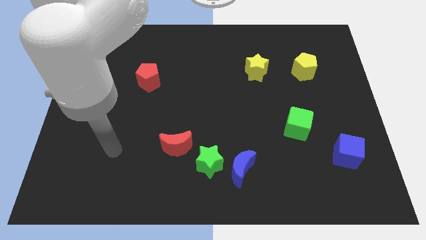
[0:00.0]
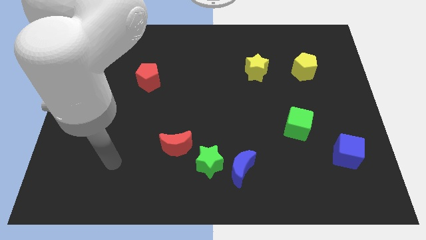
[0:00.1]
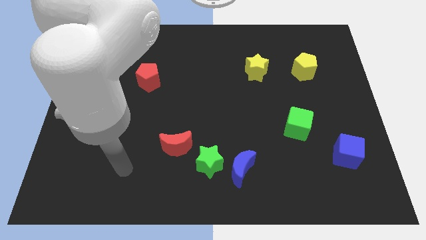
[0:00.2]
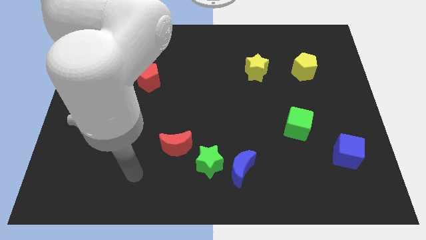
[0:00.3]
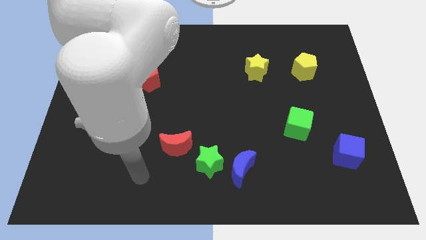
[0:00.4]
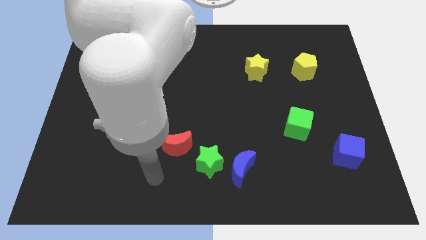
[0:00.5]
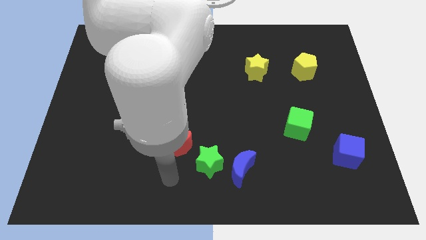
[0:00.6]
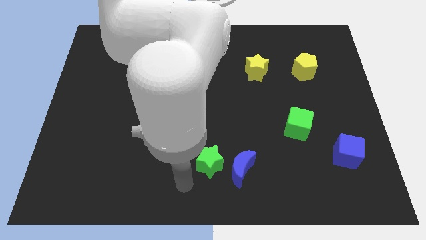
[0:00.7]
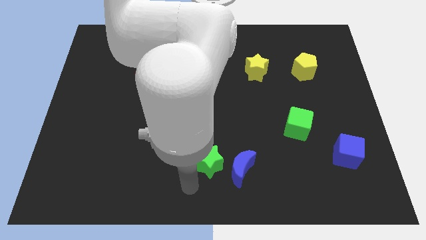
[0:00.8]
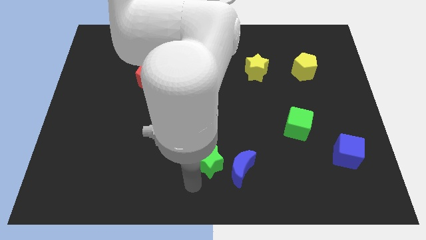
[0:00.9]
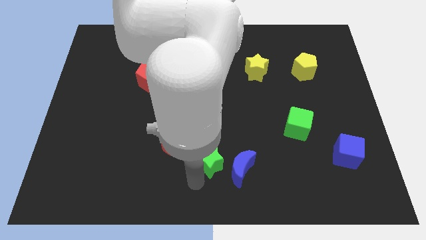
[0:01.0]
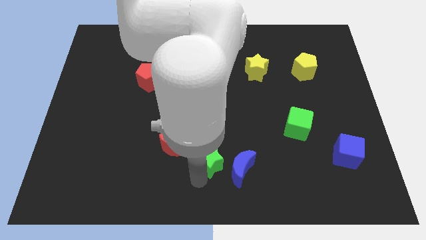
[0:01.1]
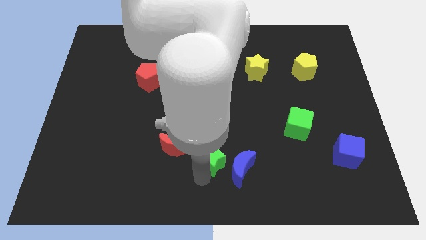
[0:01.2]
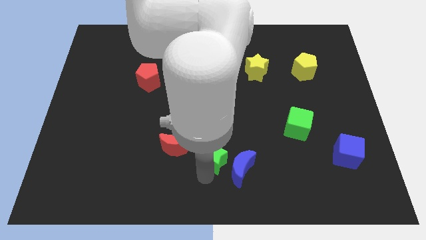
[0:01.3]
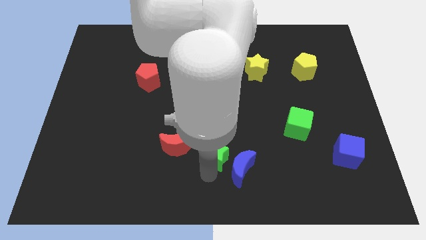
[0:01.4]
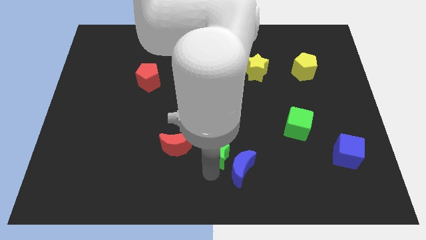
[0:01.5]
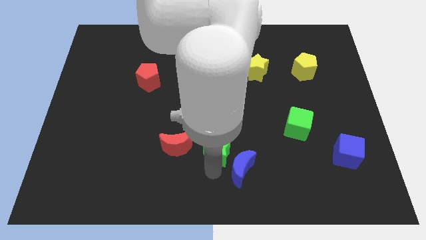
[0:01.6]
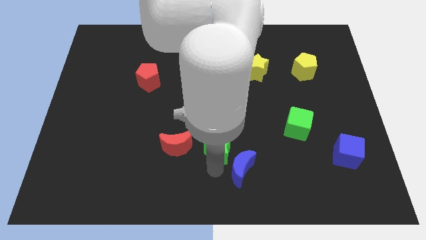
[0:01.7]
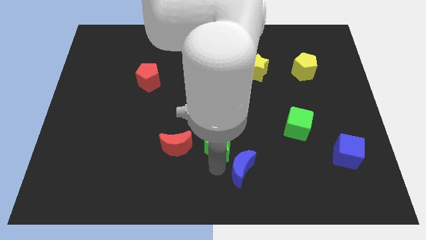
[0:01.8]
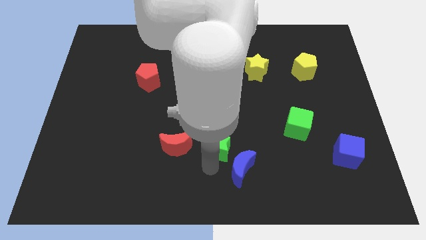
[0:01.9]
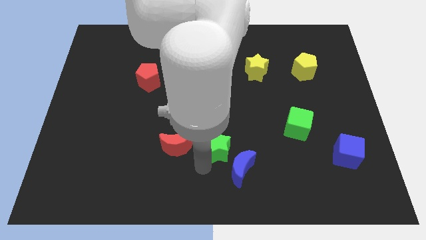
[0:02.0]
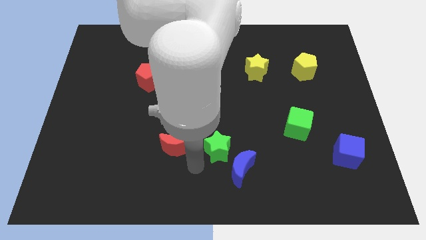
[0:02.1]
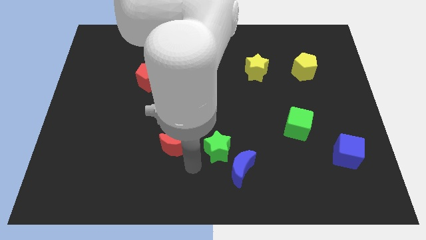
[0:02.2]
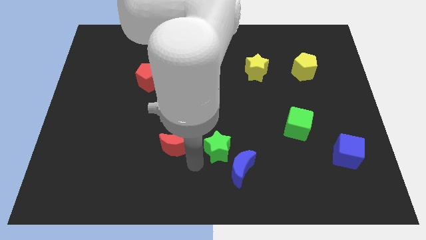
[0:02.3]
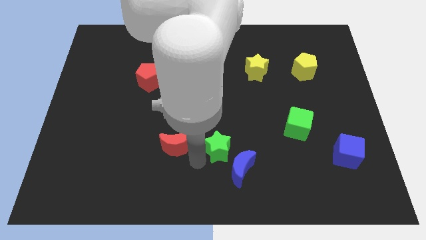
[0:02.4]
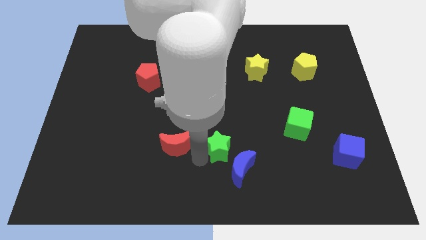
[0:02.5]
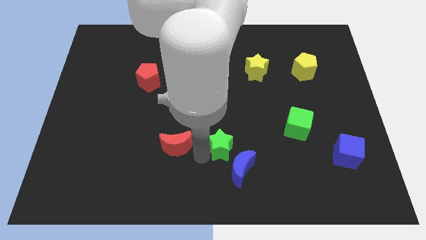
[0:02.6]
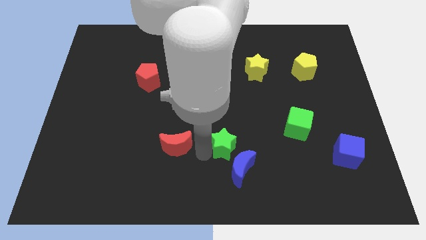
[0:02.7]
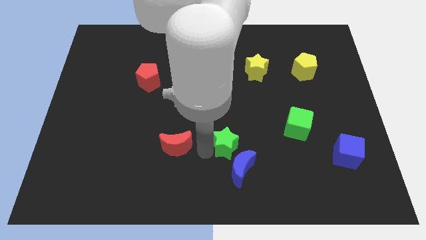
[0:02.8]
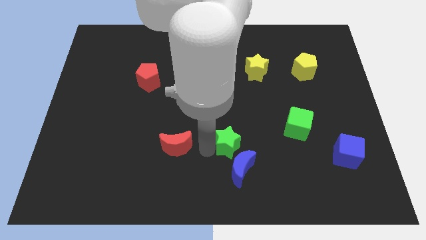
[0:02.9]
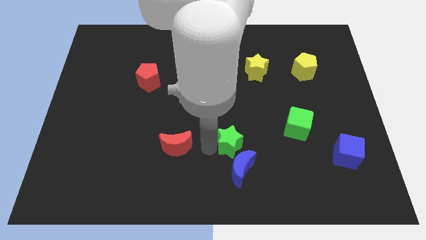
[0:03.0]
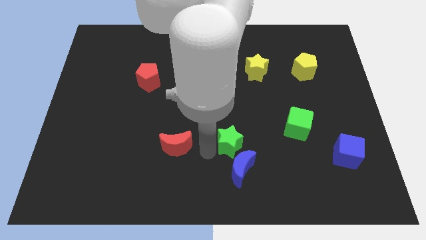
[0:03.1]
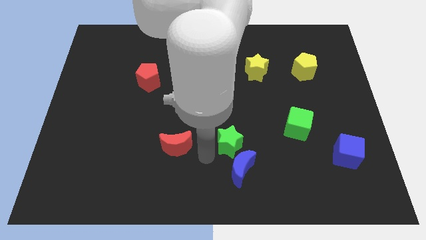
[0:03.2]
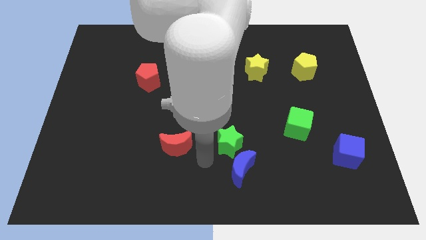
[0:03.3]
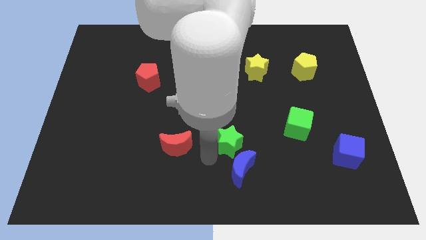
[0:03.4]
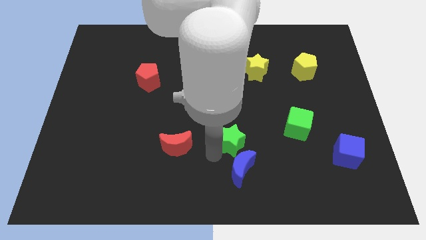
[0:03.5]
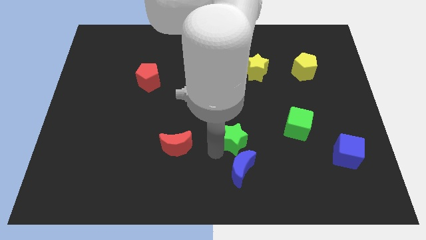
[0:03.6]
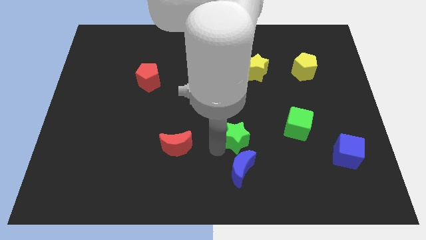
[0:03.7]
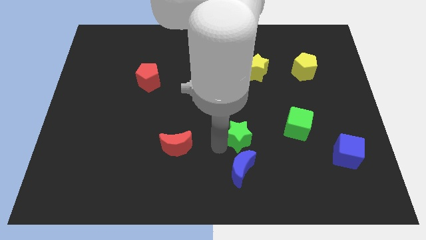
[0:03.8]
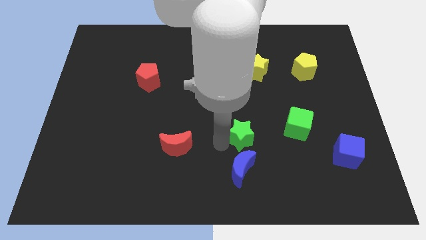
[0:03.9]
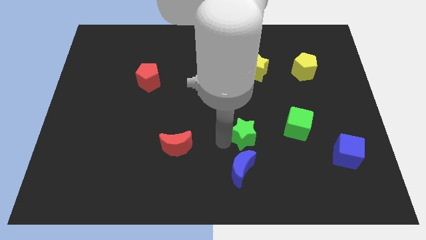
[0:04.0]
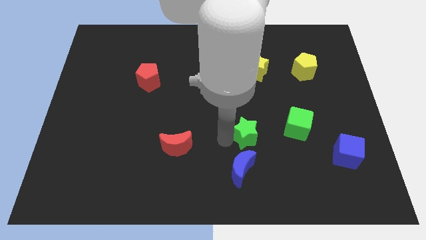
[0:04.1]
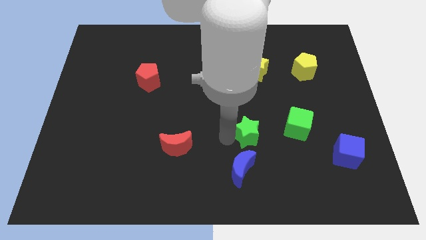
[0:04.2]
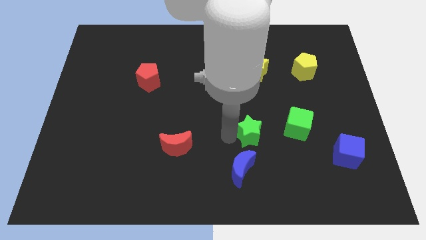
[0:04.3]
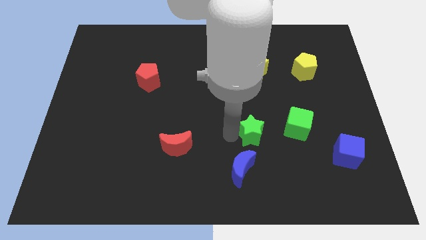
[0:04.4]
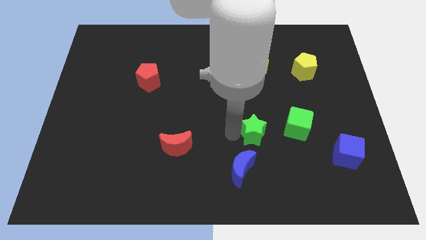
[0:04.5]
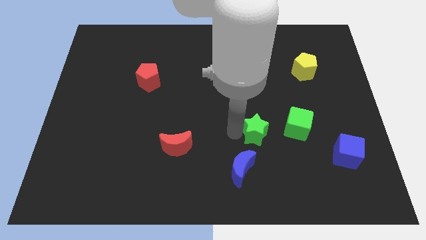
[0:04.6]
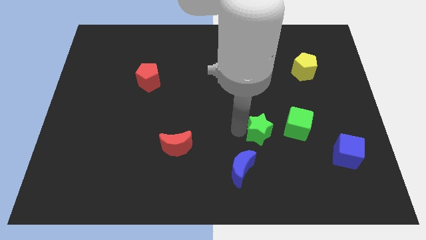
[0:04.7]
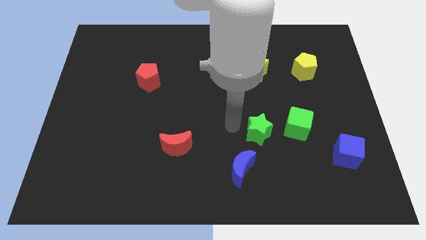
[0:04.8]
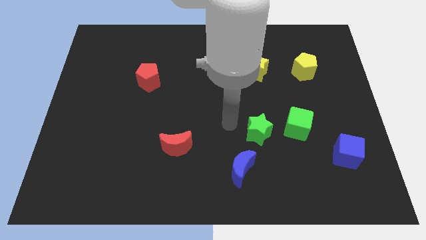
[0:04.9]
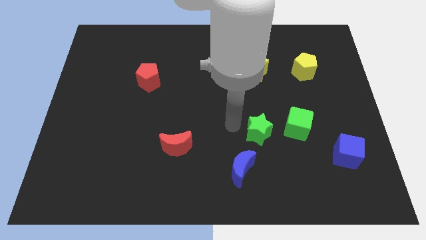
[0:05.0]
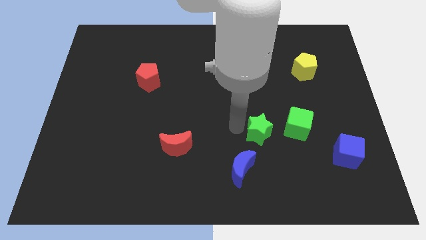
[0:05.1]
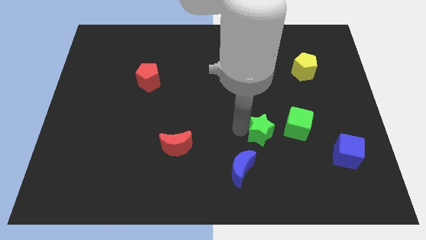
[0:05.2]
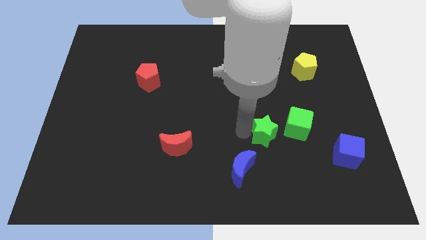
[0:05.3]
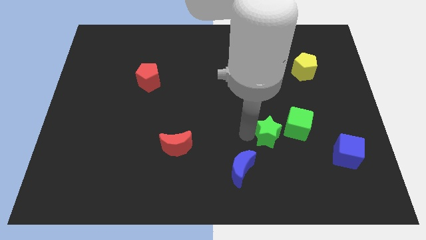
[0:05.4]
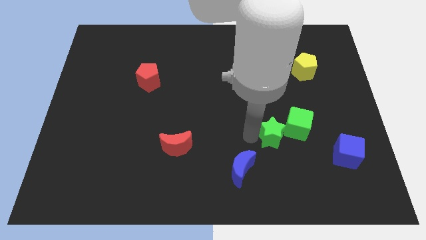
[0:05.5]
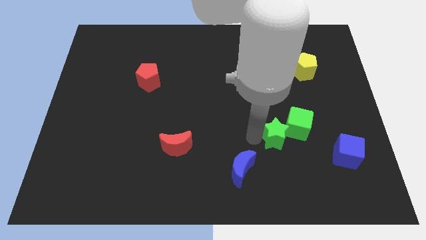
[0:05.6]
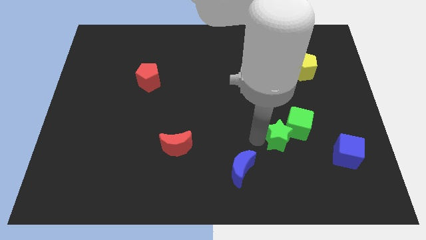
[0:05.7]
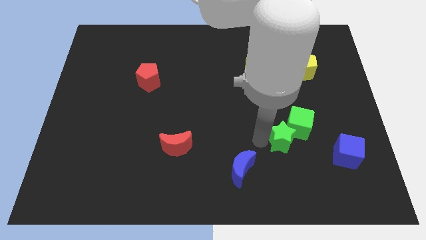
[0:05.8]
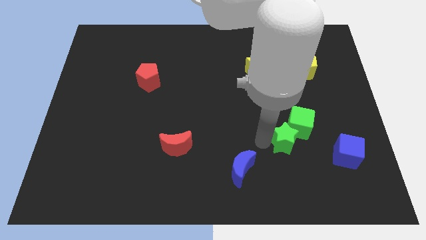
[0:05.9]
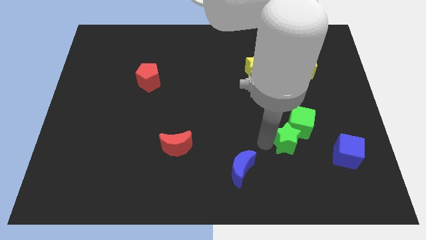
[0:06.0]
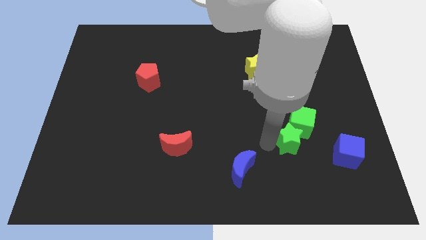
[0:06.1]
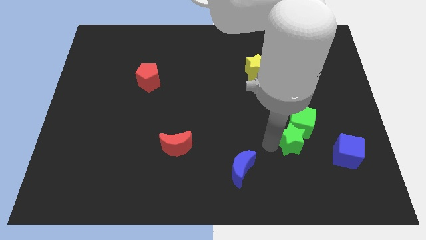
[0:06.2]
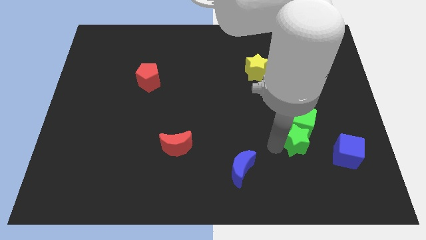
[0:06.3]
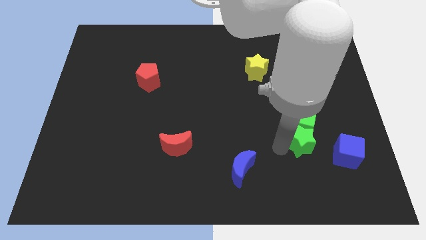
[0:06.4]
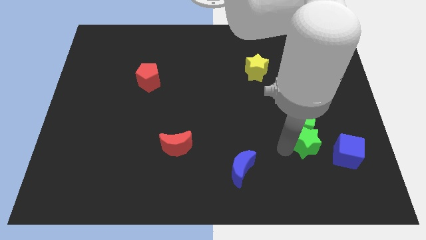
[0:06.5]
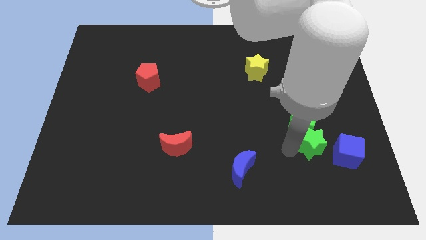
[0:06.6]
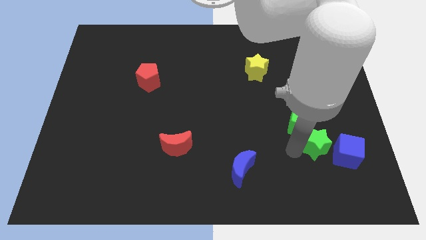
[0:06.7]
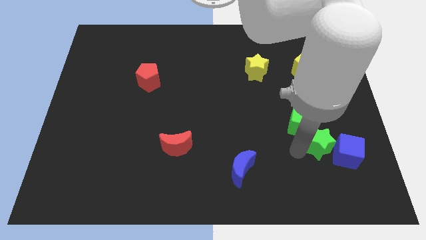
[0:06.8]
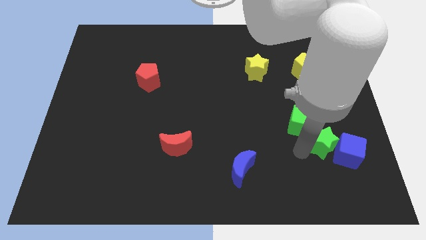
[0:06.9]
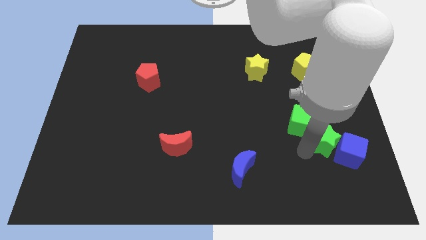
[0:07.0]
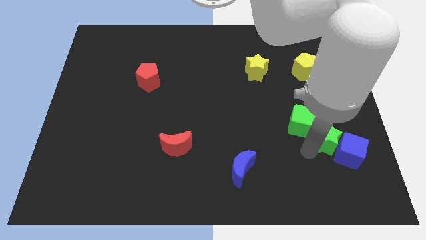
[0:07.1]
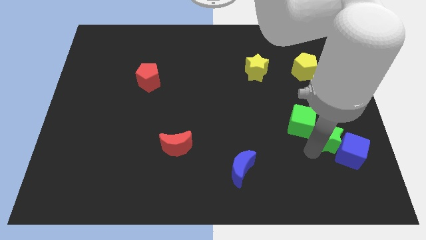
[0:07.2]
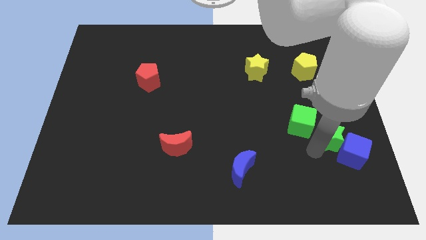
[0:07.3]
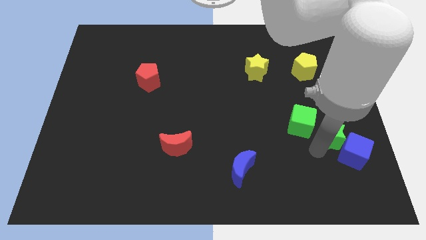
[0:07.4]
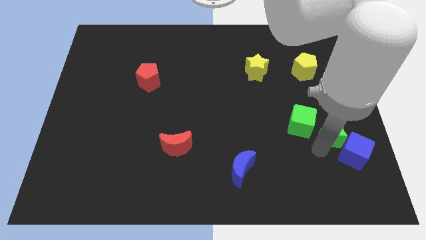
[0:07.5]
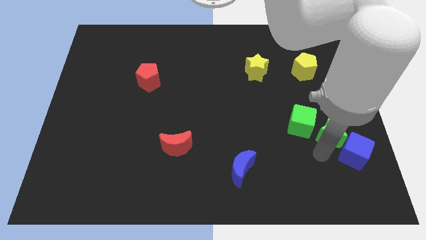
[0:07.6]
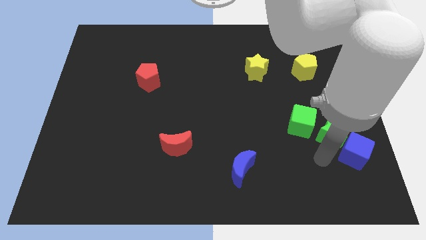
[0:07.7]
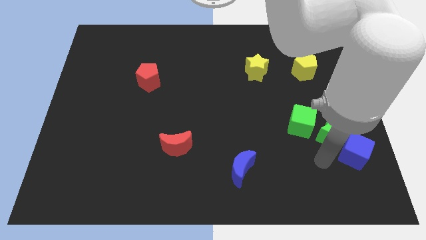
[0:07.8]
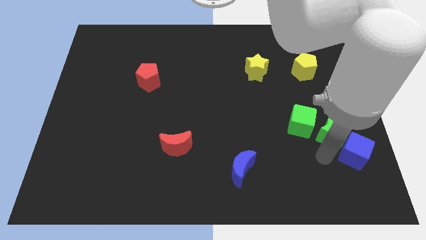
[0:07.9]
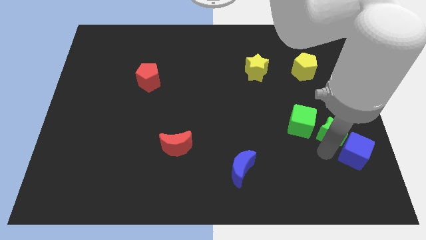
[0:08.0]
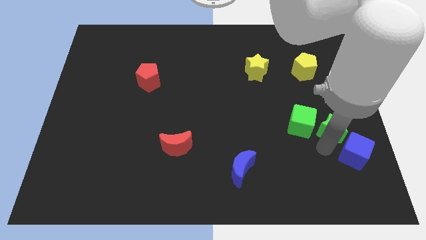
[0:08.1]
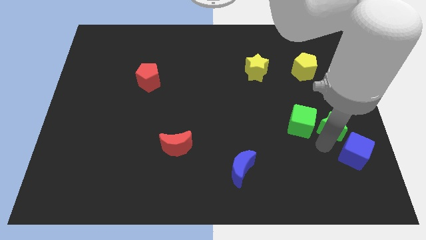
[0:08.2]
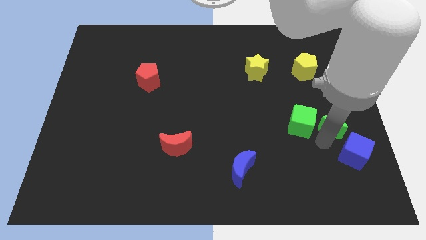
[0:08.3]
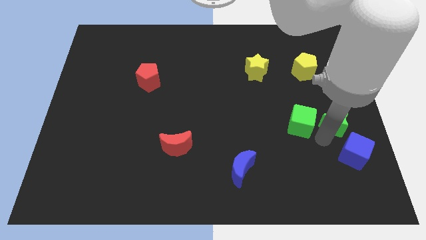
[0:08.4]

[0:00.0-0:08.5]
slide the green star to the right side of the board
